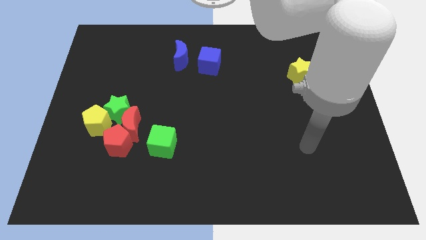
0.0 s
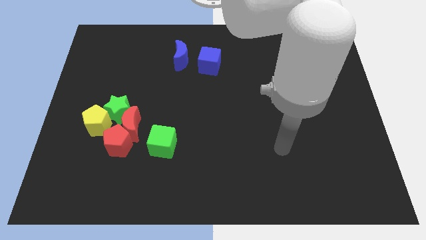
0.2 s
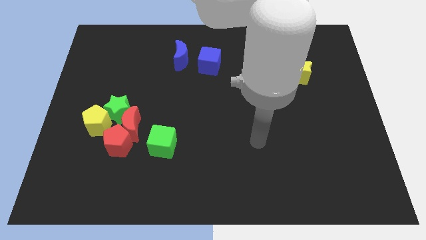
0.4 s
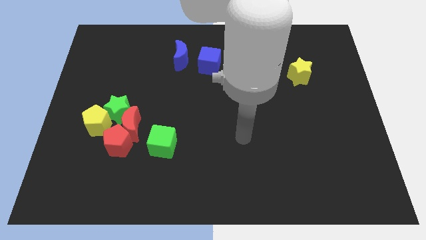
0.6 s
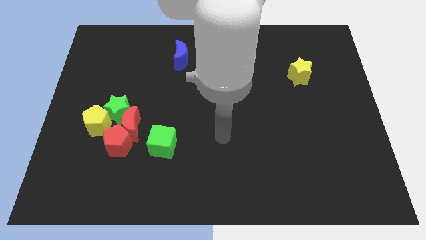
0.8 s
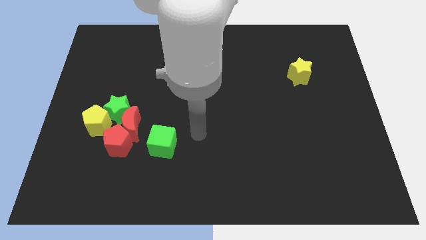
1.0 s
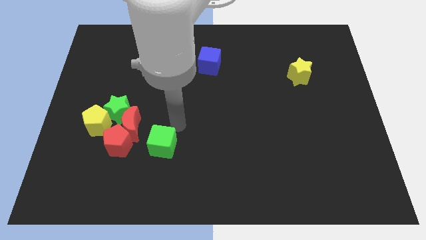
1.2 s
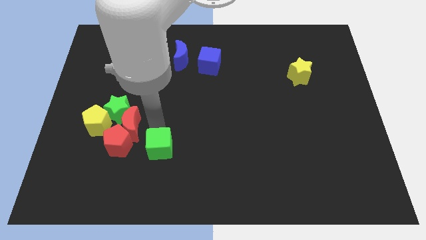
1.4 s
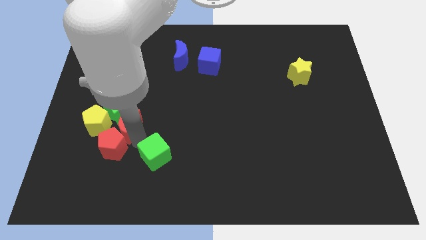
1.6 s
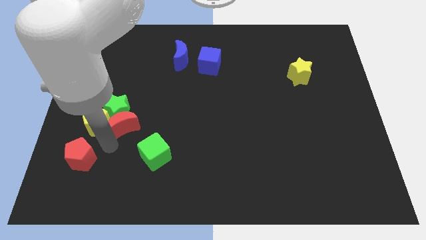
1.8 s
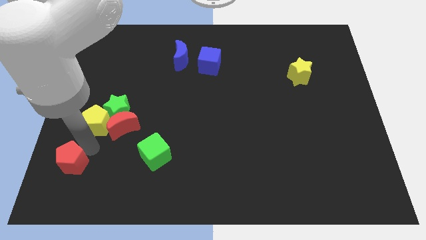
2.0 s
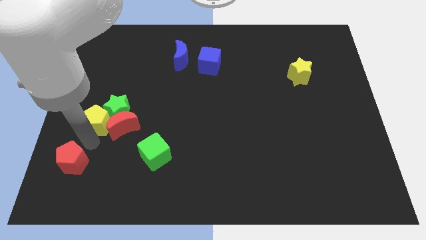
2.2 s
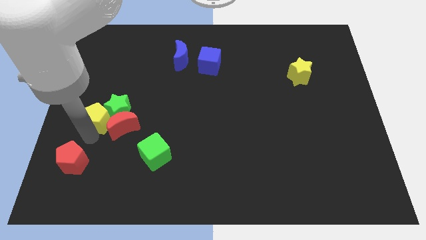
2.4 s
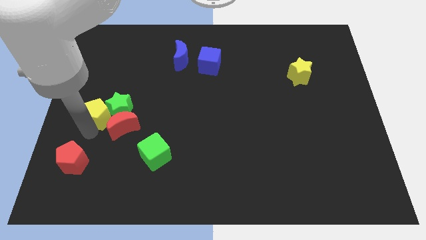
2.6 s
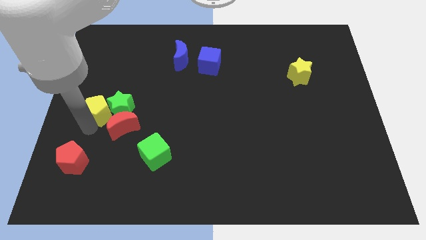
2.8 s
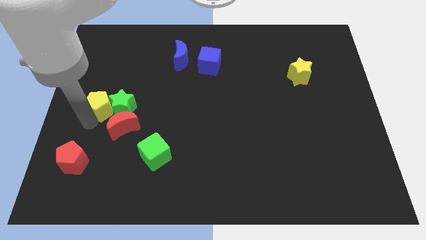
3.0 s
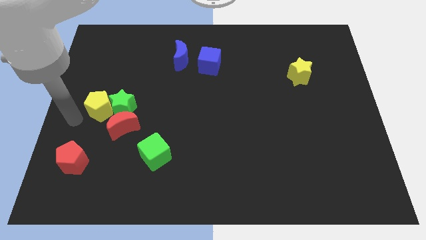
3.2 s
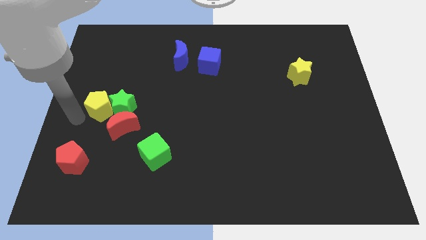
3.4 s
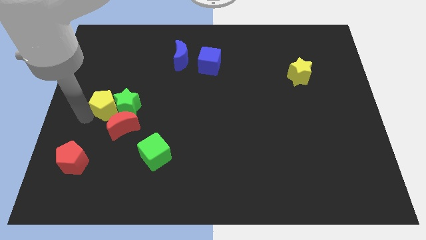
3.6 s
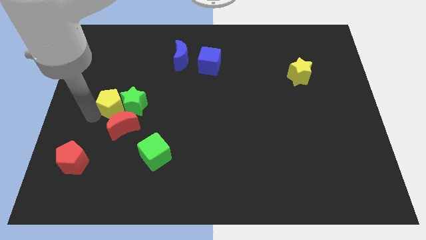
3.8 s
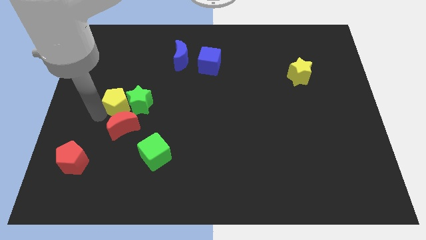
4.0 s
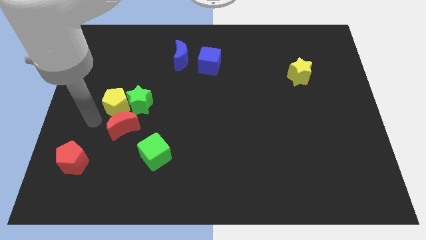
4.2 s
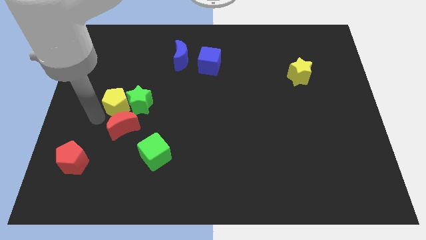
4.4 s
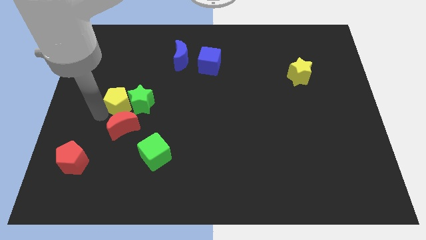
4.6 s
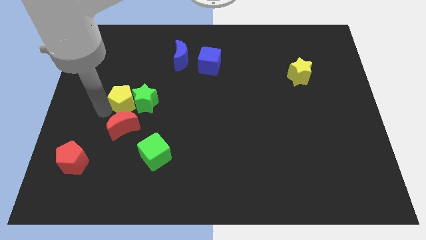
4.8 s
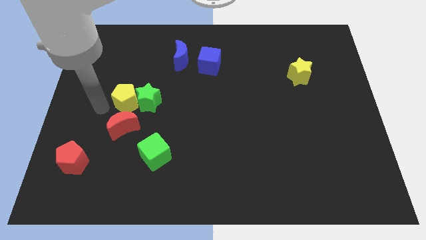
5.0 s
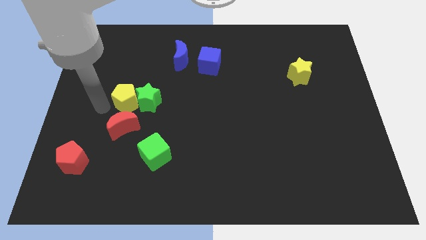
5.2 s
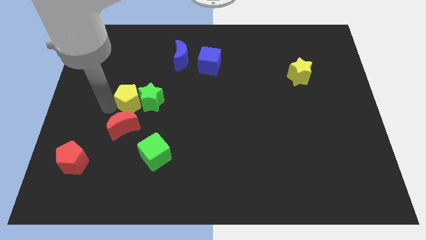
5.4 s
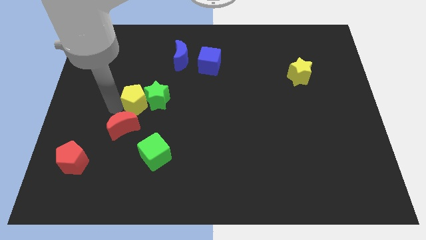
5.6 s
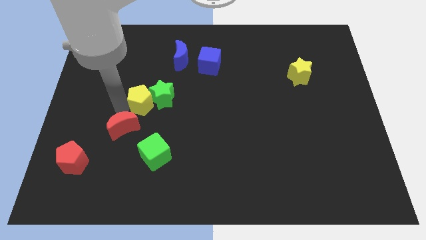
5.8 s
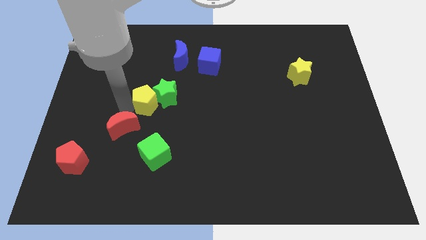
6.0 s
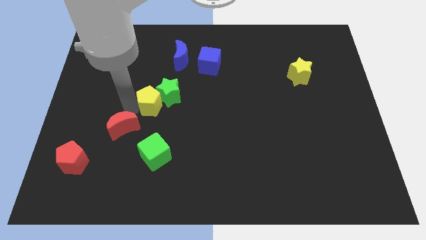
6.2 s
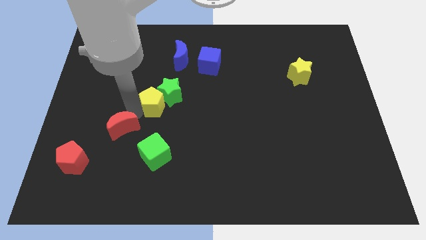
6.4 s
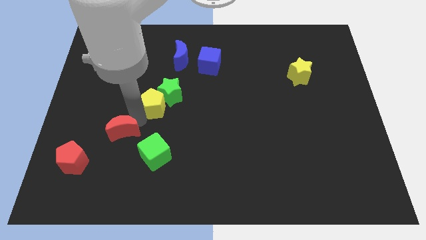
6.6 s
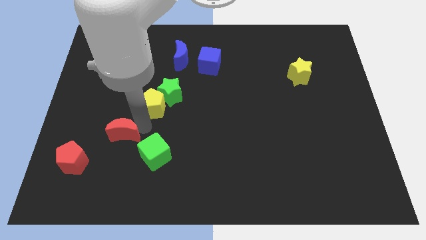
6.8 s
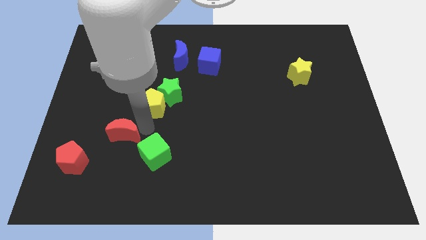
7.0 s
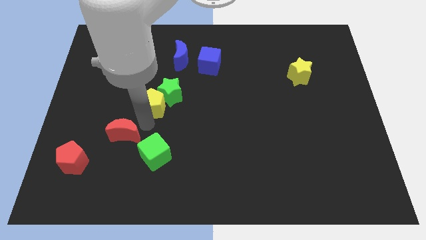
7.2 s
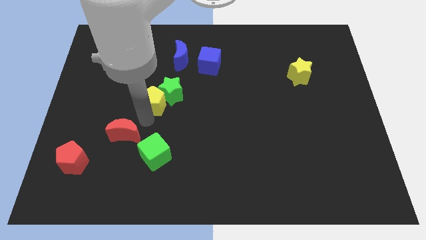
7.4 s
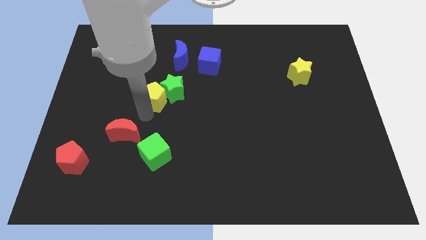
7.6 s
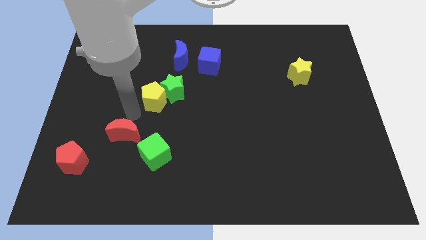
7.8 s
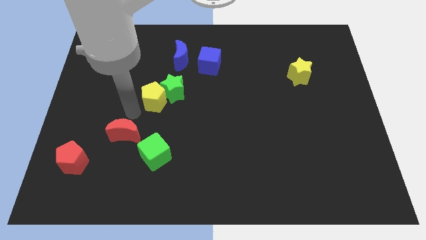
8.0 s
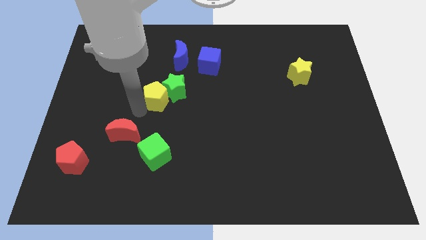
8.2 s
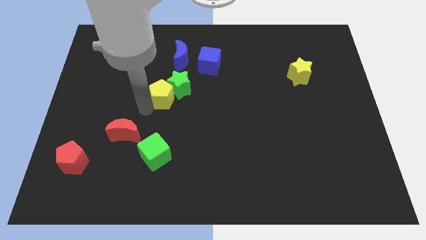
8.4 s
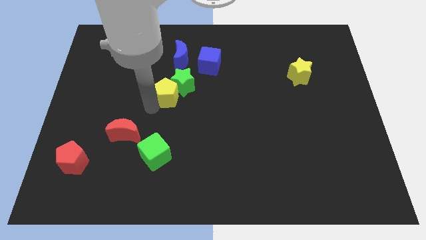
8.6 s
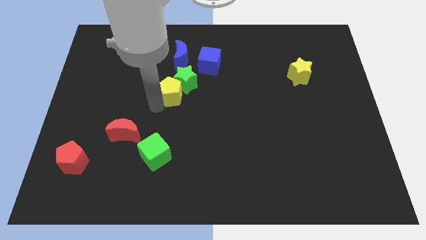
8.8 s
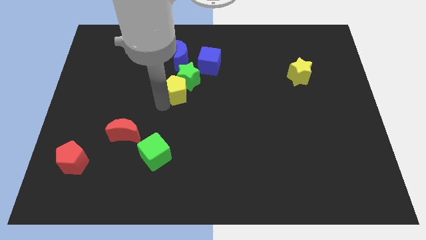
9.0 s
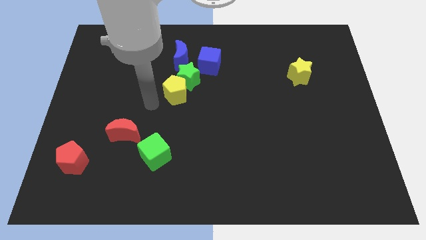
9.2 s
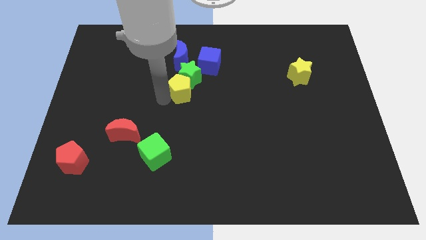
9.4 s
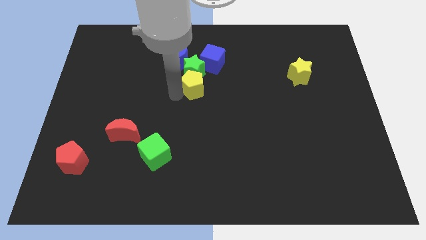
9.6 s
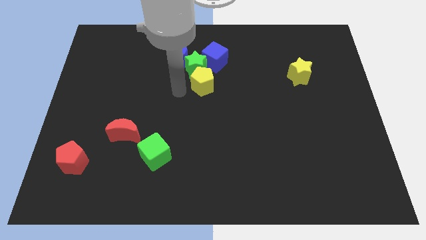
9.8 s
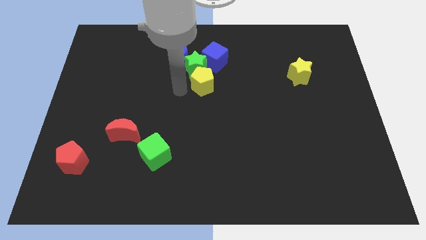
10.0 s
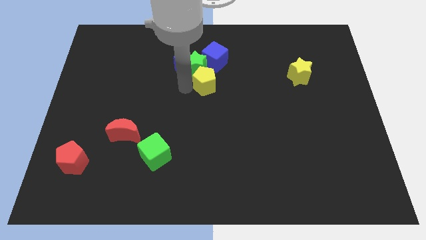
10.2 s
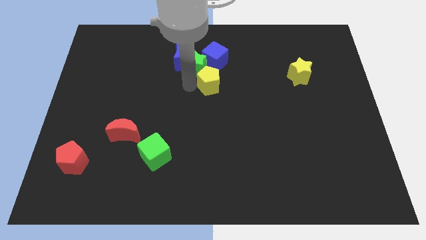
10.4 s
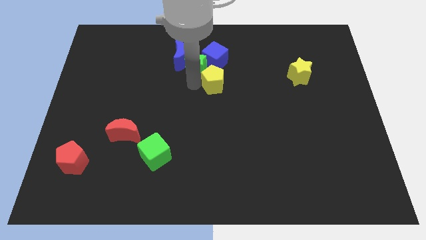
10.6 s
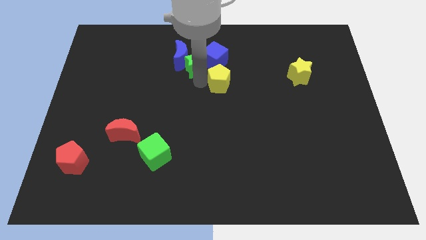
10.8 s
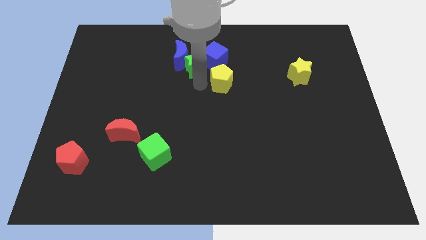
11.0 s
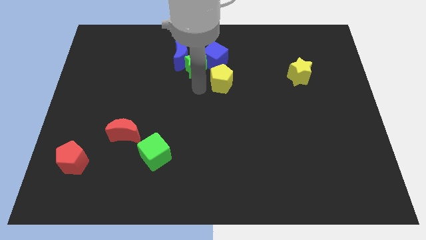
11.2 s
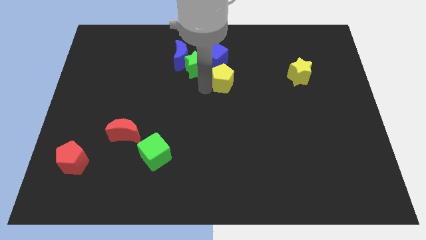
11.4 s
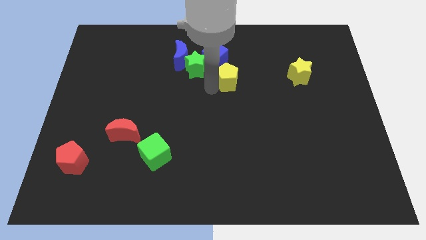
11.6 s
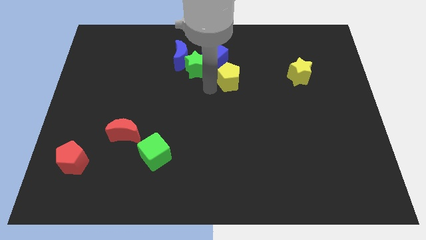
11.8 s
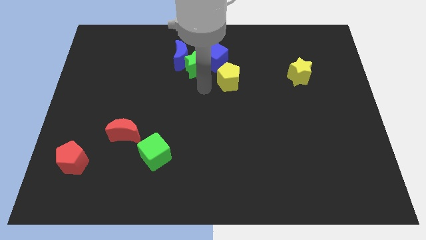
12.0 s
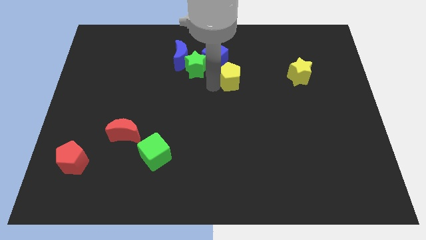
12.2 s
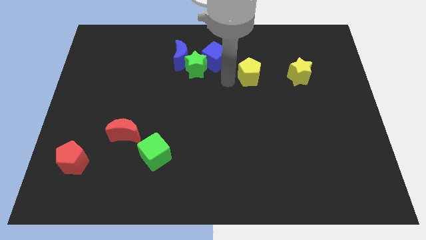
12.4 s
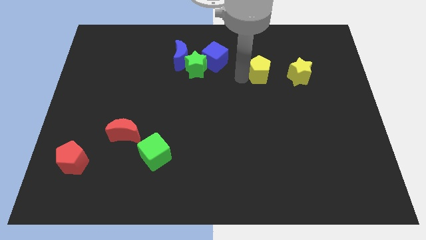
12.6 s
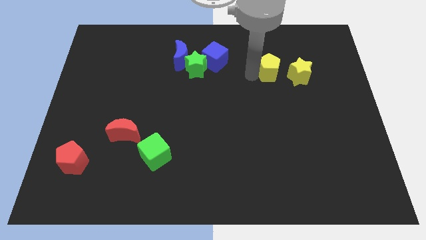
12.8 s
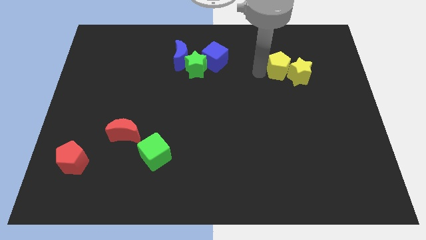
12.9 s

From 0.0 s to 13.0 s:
put the yellow pentagon to the yellow star

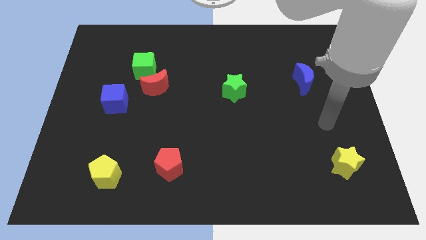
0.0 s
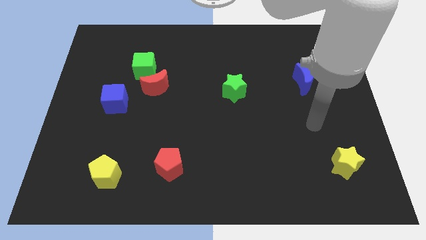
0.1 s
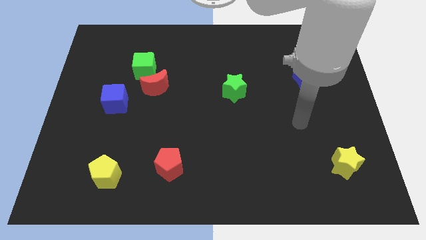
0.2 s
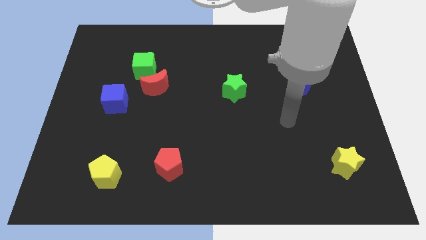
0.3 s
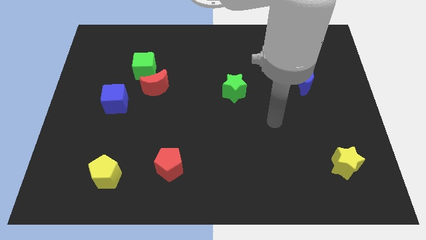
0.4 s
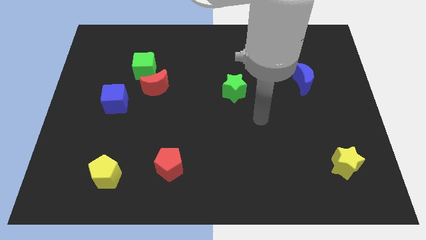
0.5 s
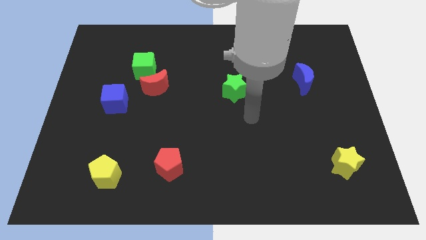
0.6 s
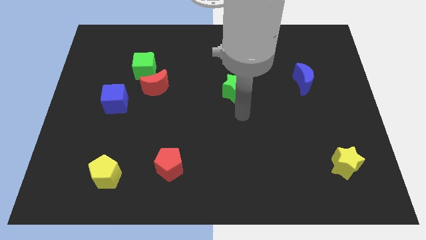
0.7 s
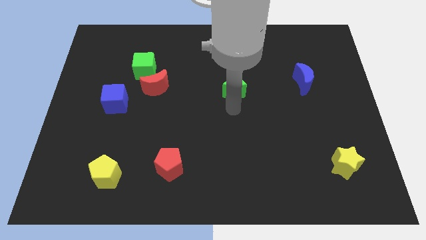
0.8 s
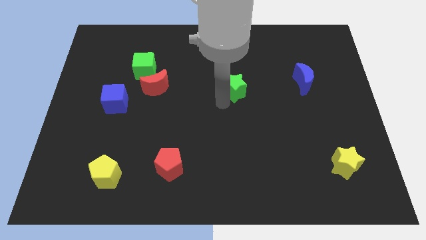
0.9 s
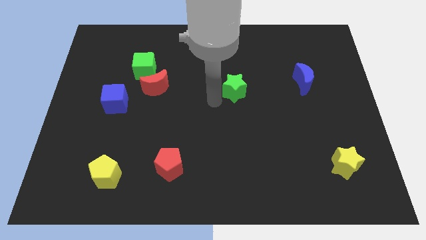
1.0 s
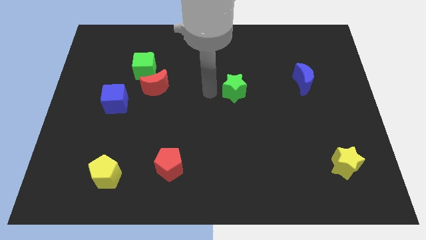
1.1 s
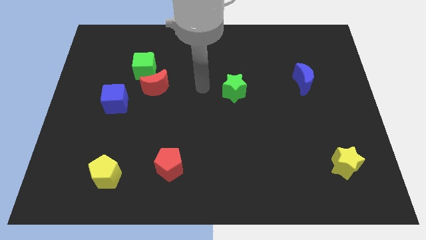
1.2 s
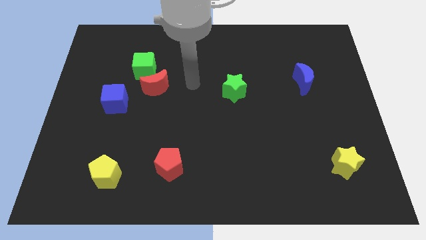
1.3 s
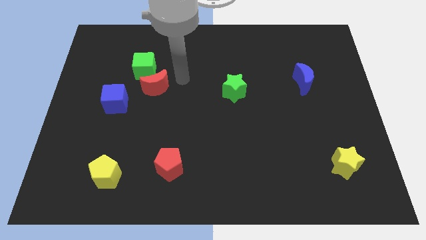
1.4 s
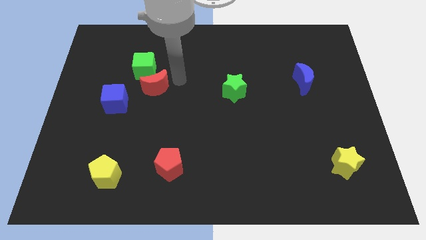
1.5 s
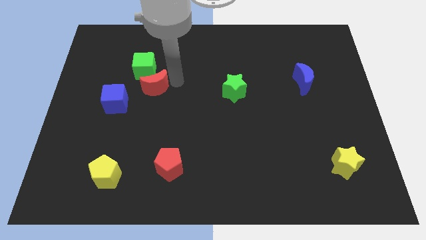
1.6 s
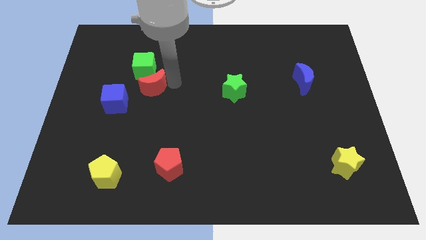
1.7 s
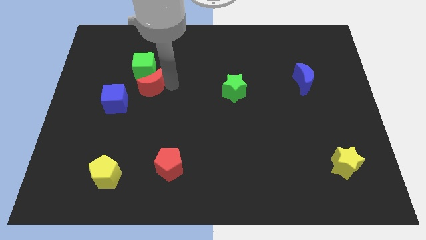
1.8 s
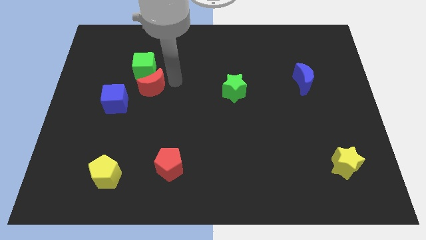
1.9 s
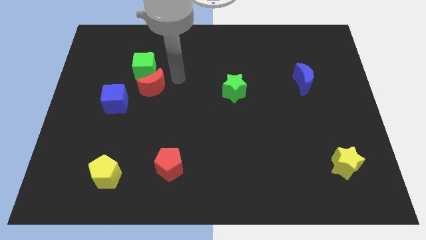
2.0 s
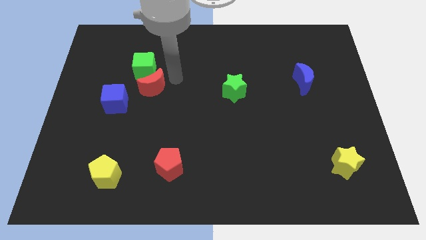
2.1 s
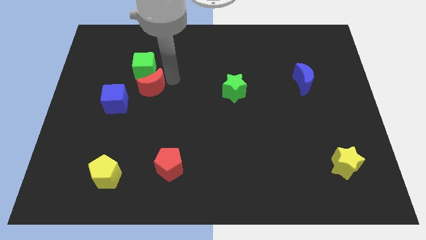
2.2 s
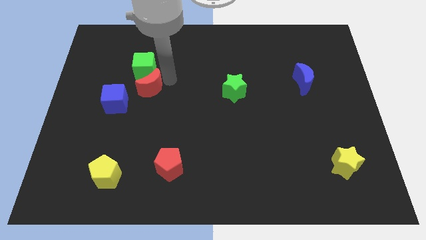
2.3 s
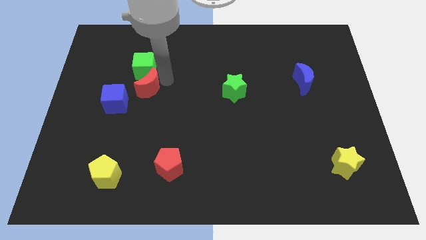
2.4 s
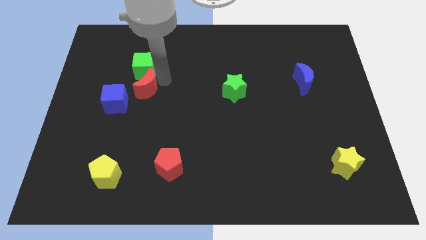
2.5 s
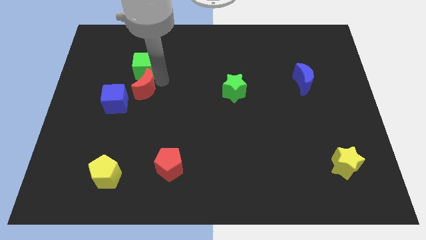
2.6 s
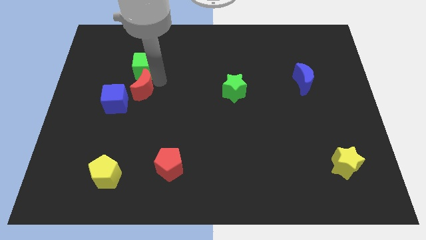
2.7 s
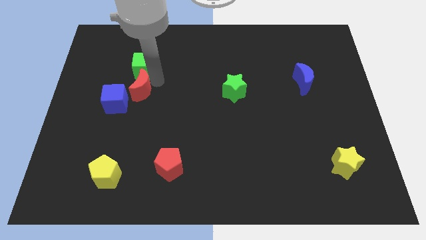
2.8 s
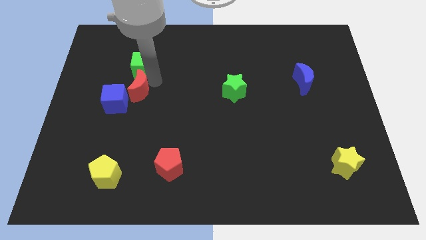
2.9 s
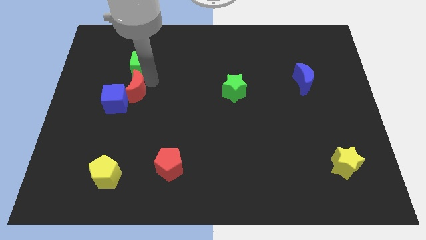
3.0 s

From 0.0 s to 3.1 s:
push the red moon close to the blue cube
